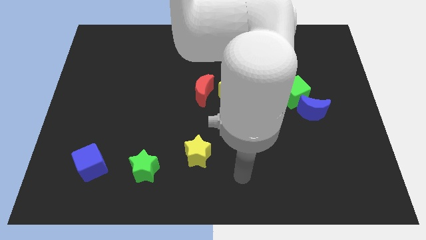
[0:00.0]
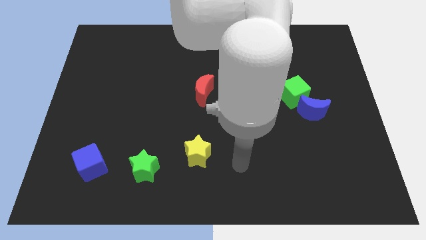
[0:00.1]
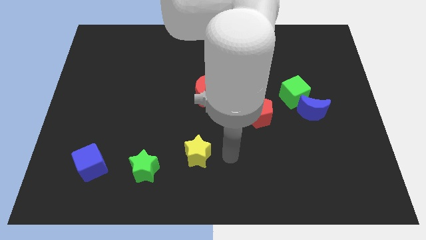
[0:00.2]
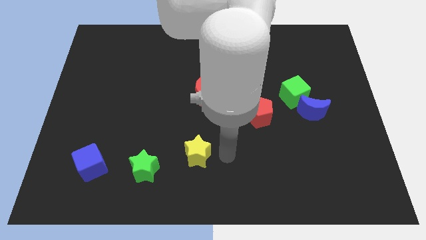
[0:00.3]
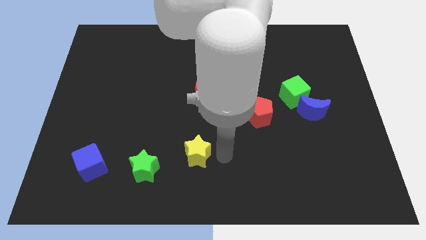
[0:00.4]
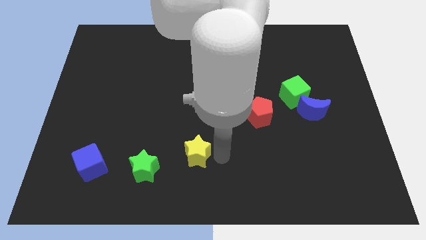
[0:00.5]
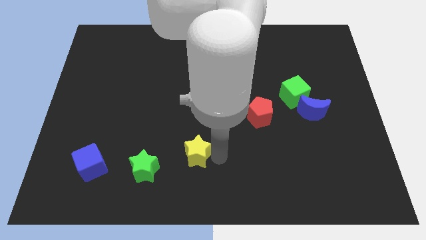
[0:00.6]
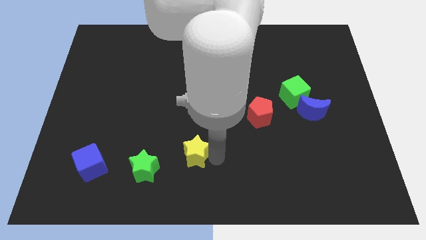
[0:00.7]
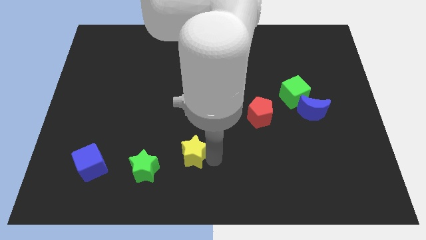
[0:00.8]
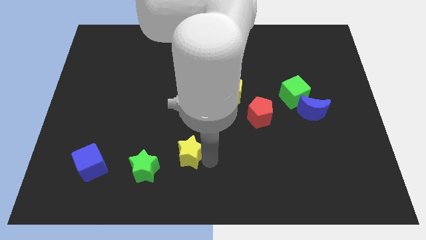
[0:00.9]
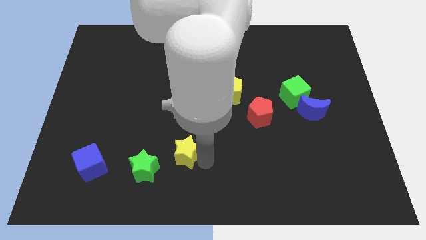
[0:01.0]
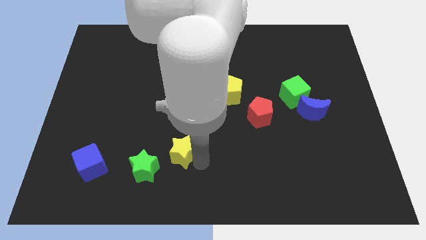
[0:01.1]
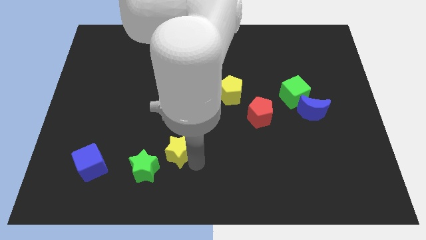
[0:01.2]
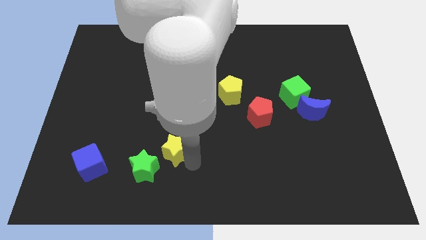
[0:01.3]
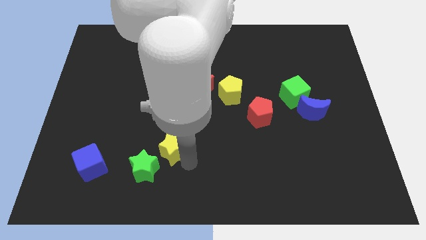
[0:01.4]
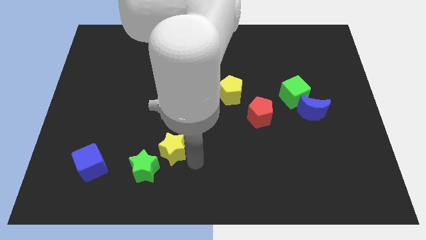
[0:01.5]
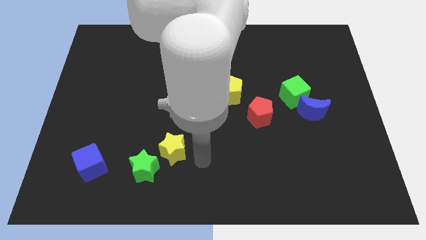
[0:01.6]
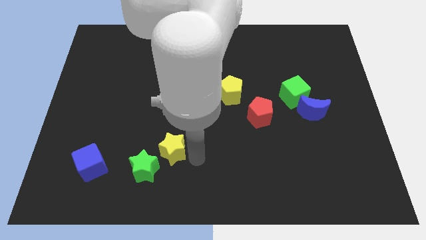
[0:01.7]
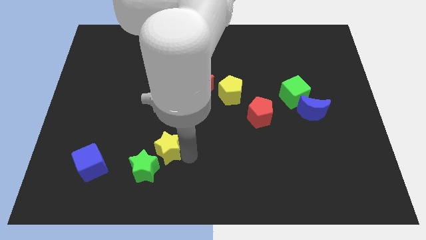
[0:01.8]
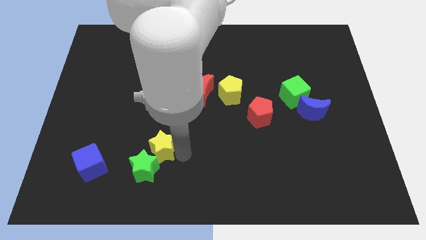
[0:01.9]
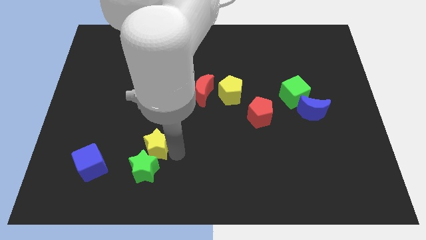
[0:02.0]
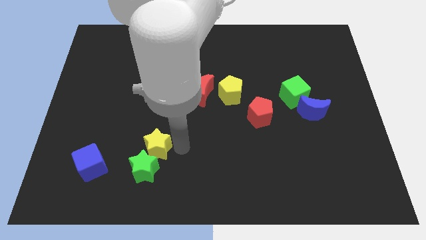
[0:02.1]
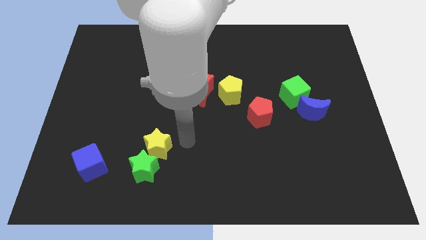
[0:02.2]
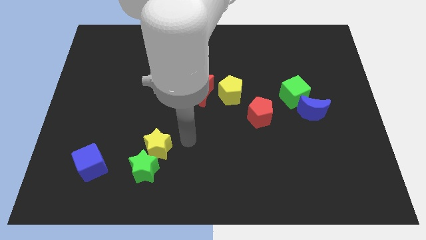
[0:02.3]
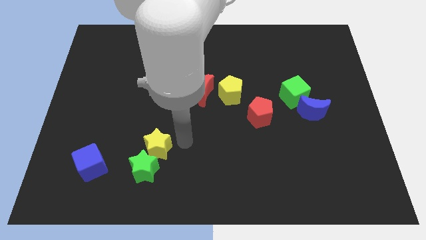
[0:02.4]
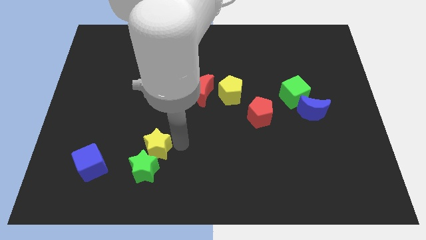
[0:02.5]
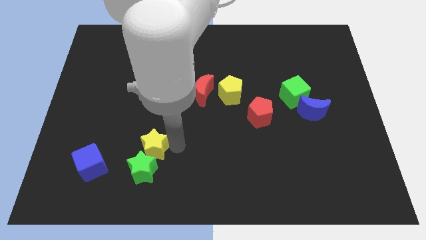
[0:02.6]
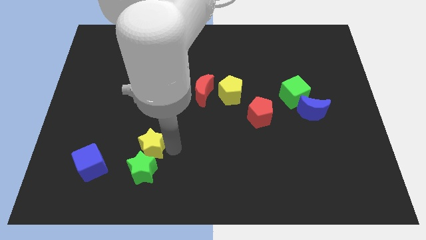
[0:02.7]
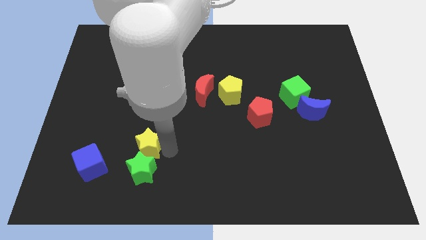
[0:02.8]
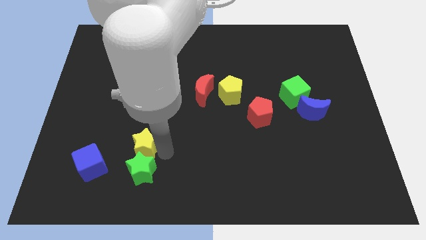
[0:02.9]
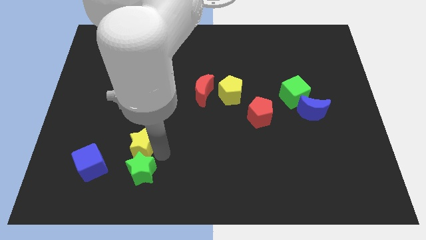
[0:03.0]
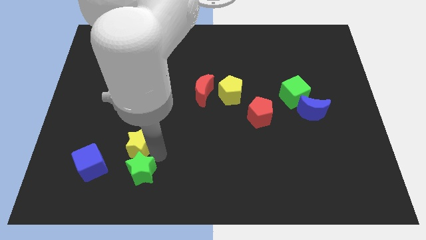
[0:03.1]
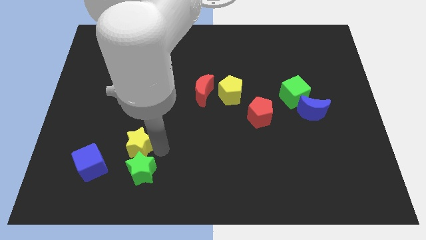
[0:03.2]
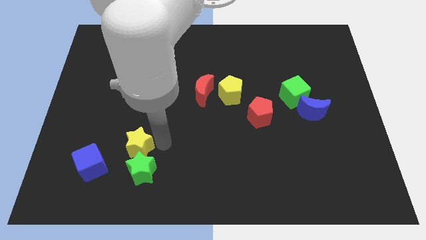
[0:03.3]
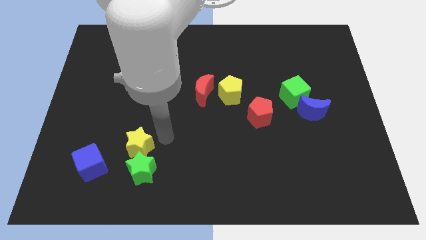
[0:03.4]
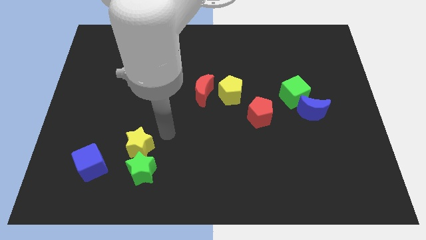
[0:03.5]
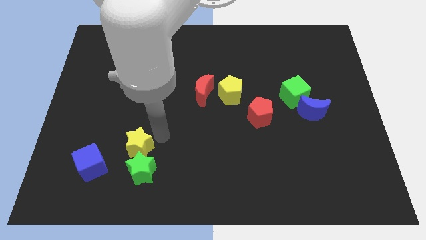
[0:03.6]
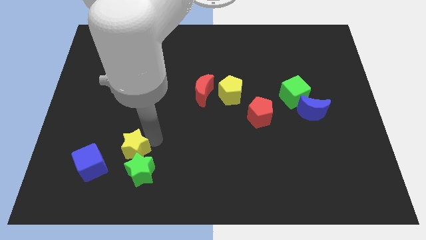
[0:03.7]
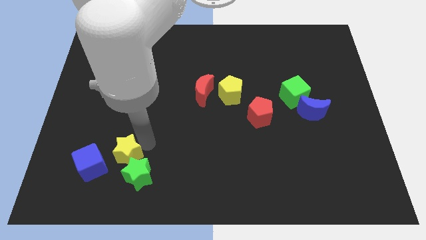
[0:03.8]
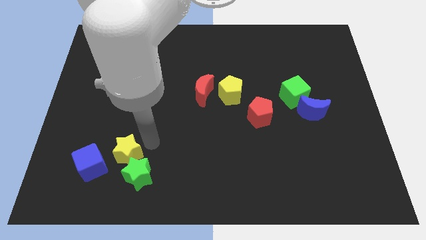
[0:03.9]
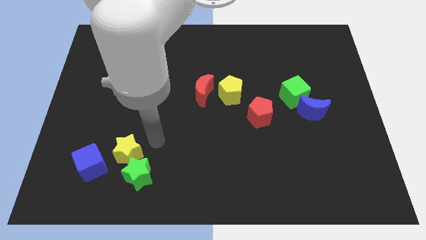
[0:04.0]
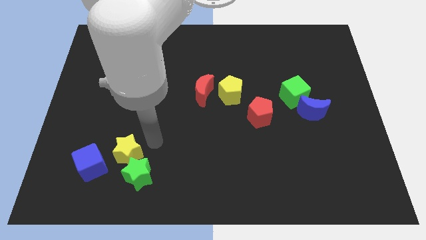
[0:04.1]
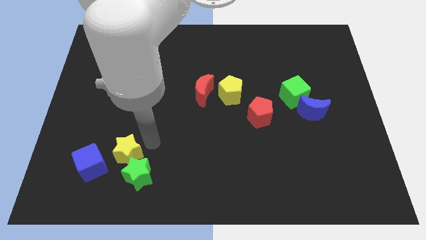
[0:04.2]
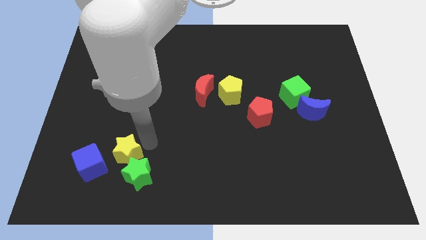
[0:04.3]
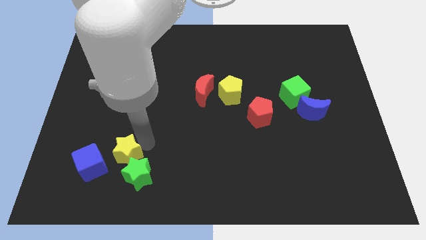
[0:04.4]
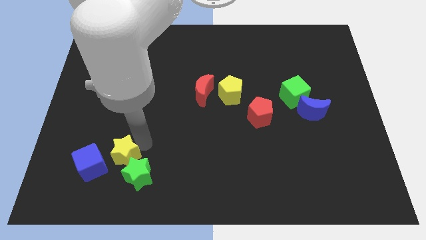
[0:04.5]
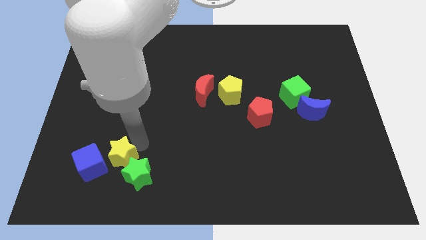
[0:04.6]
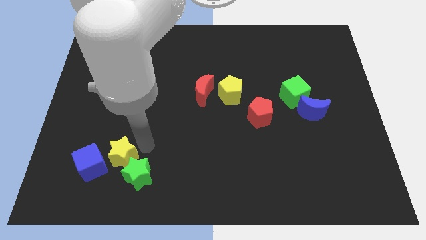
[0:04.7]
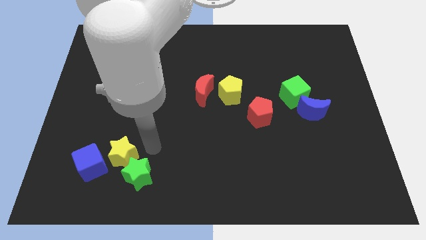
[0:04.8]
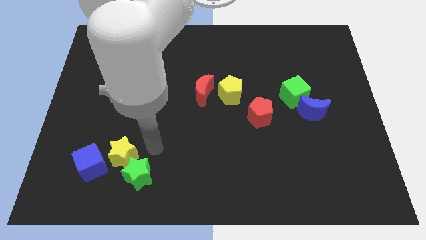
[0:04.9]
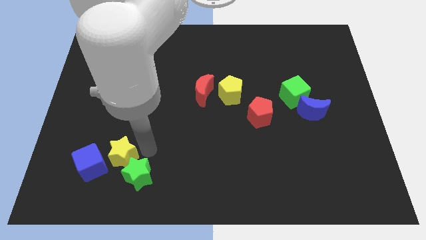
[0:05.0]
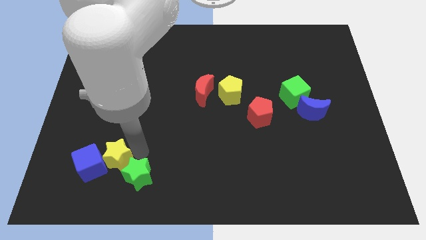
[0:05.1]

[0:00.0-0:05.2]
put the yellow star to the blue cube

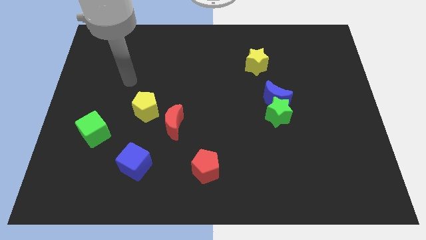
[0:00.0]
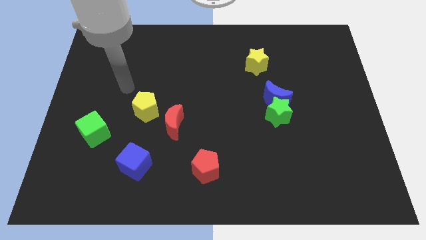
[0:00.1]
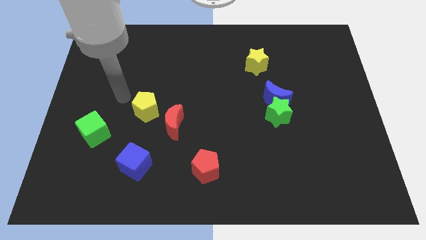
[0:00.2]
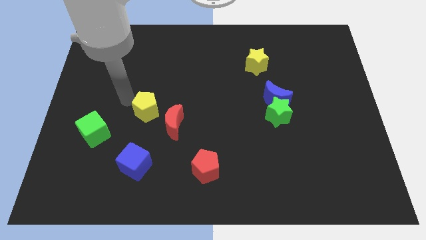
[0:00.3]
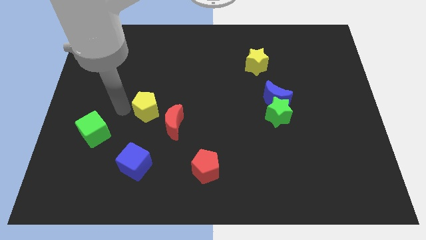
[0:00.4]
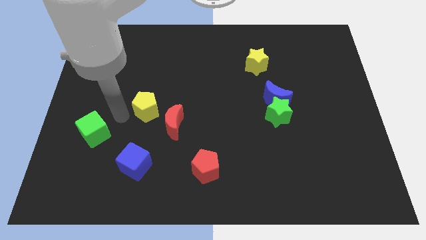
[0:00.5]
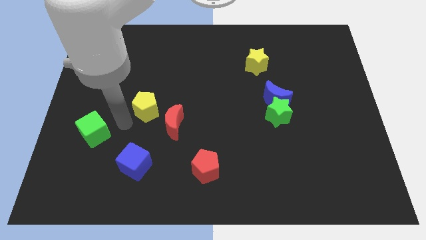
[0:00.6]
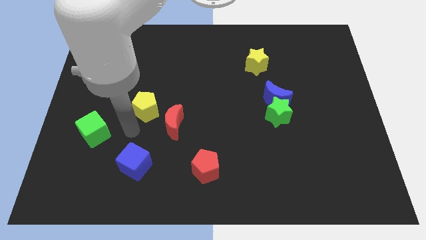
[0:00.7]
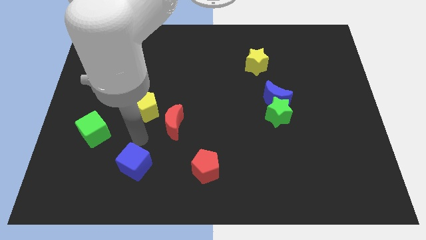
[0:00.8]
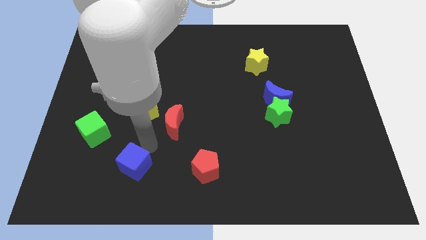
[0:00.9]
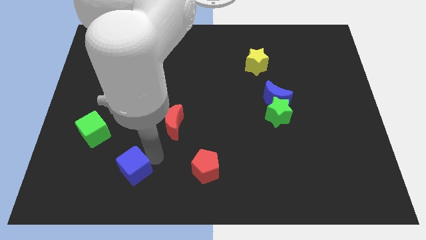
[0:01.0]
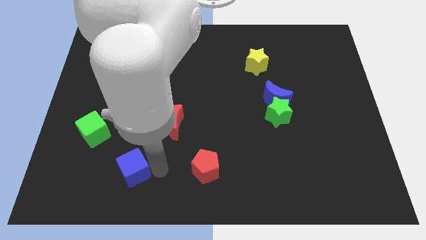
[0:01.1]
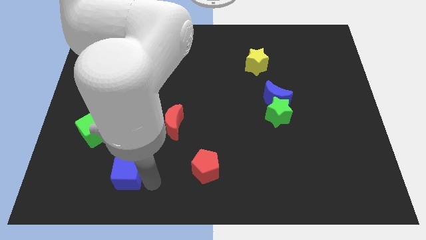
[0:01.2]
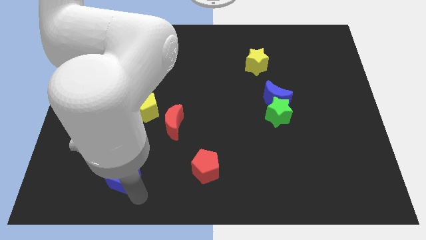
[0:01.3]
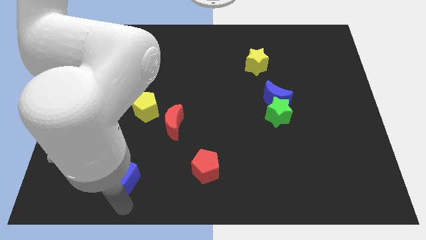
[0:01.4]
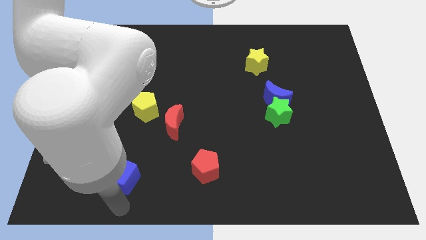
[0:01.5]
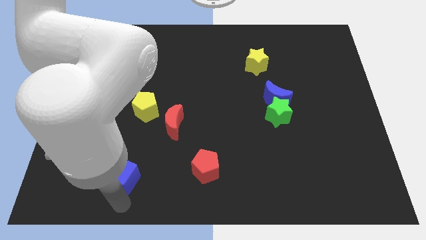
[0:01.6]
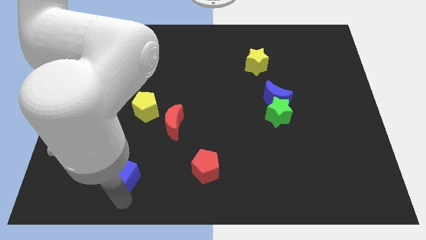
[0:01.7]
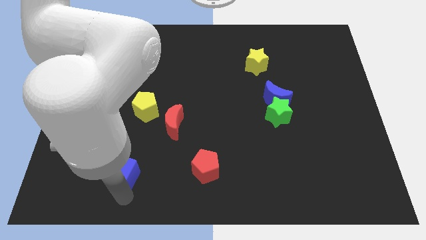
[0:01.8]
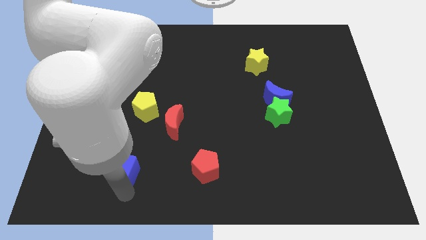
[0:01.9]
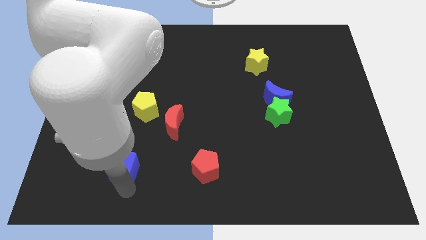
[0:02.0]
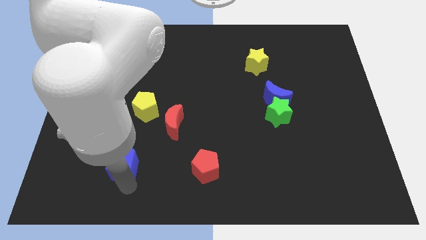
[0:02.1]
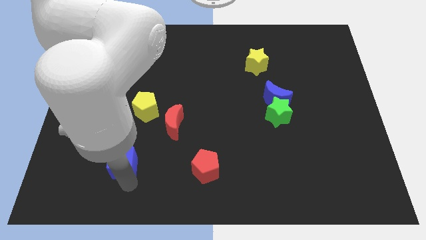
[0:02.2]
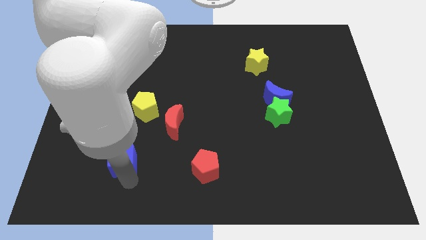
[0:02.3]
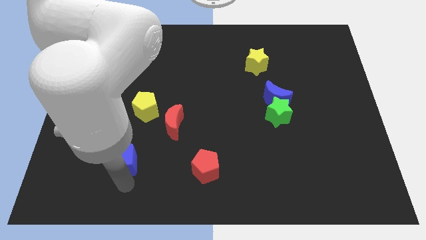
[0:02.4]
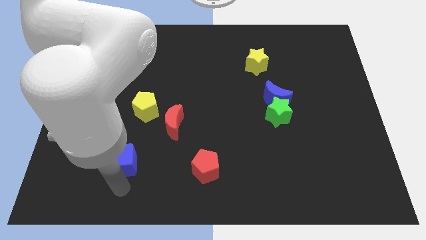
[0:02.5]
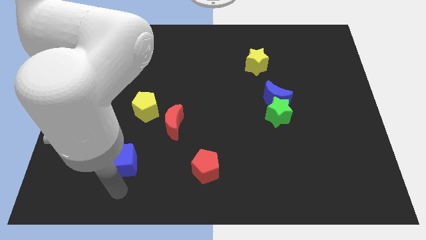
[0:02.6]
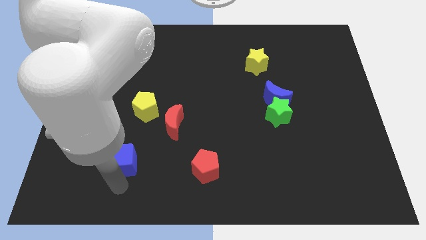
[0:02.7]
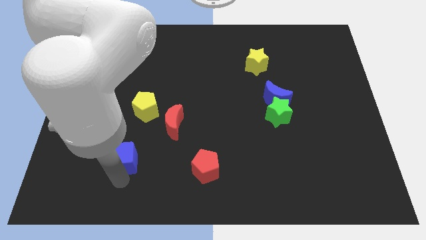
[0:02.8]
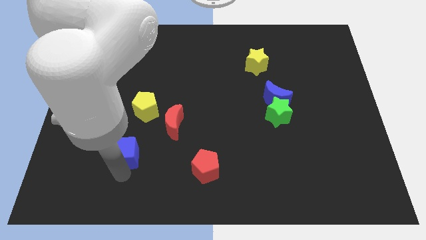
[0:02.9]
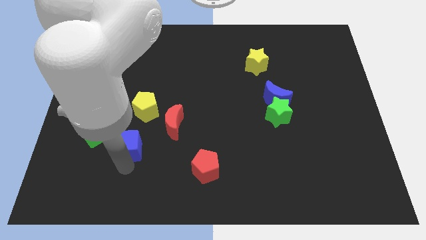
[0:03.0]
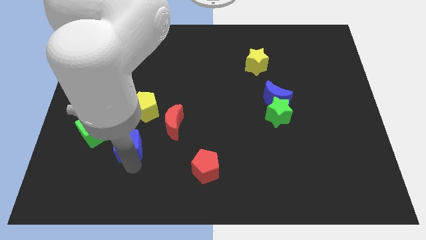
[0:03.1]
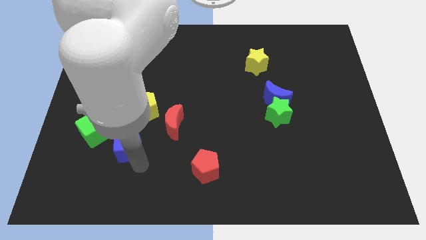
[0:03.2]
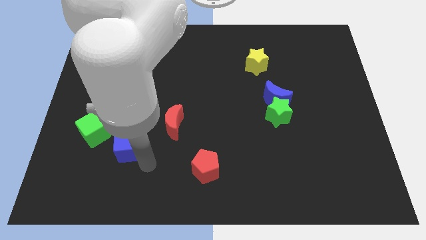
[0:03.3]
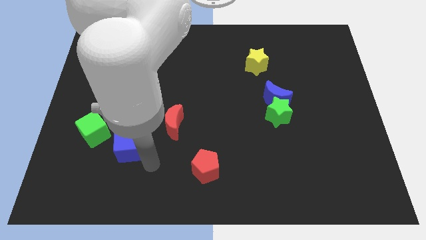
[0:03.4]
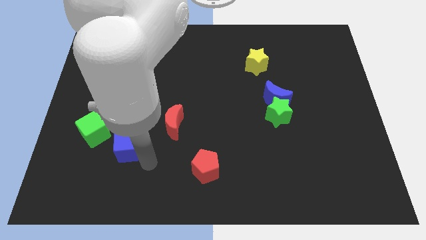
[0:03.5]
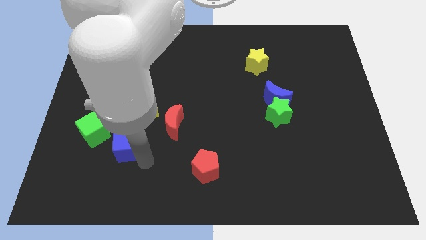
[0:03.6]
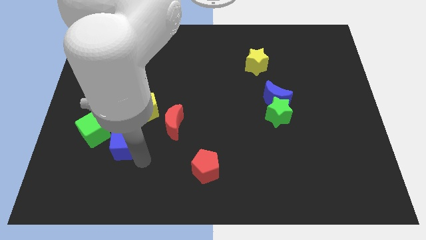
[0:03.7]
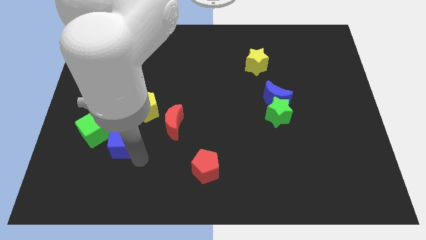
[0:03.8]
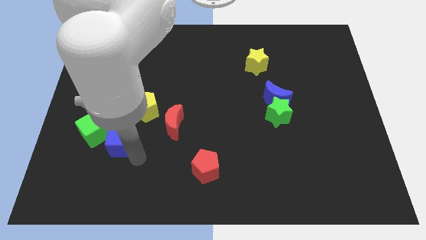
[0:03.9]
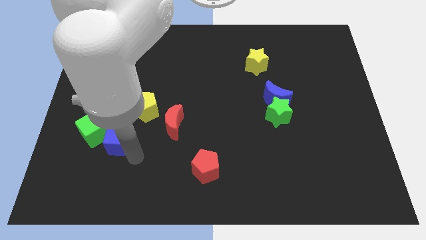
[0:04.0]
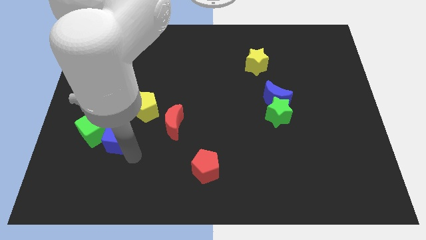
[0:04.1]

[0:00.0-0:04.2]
put the blue cube close to the green cube
